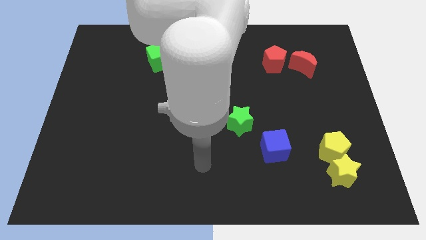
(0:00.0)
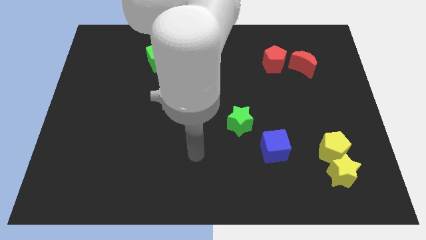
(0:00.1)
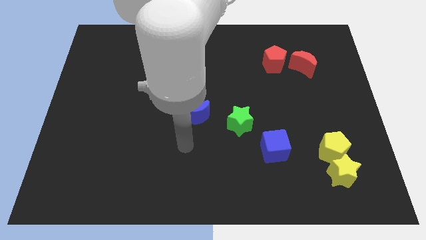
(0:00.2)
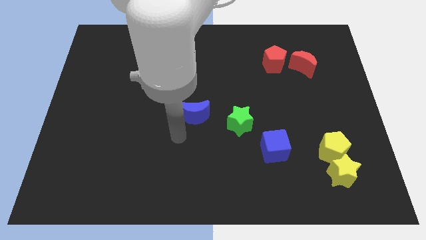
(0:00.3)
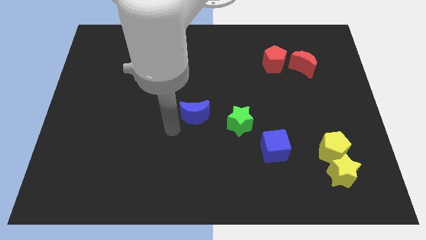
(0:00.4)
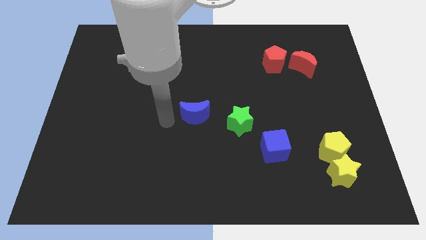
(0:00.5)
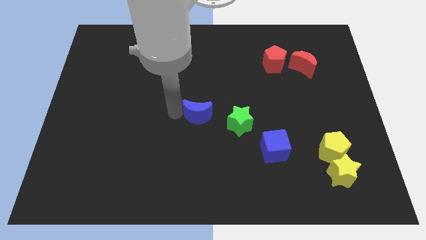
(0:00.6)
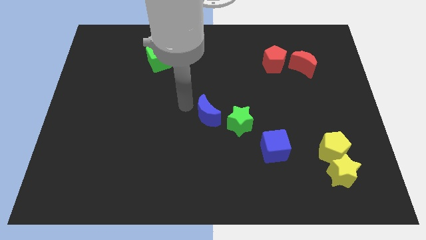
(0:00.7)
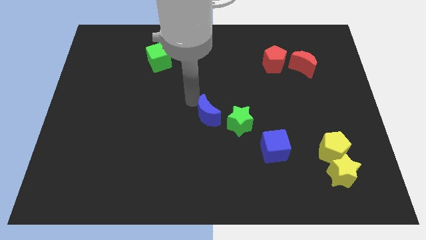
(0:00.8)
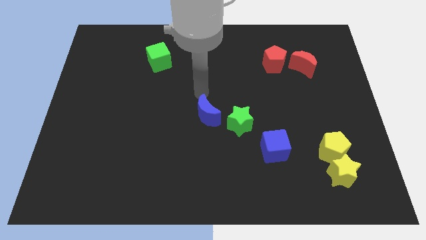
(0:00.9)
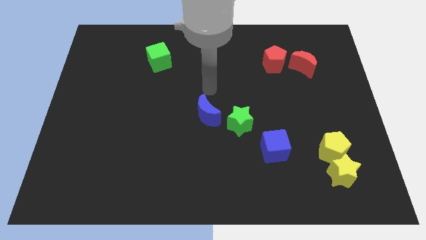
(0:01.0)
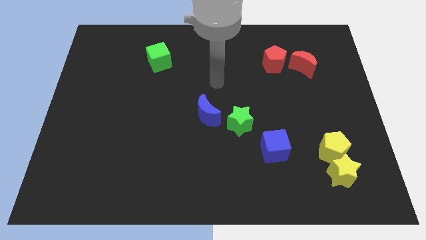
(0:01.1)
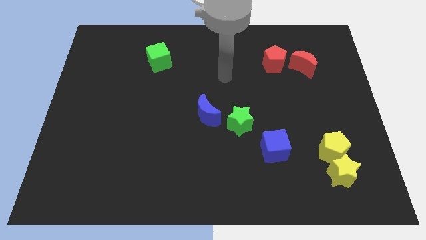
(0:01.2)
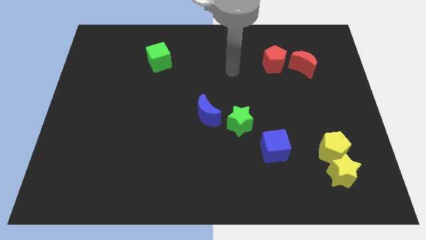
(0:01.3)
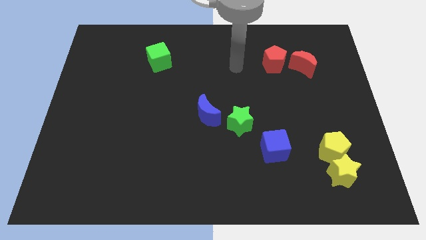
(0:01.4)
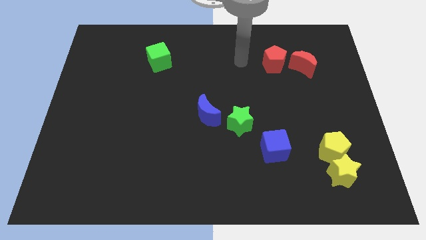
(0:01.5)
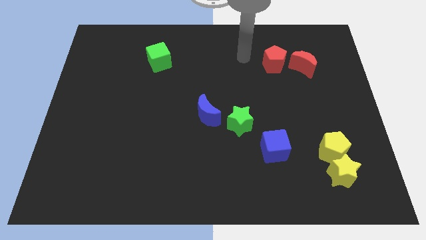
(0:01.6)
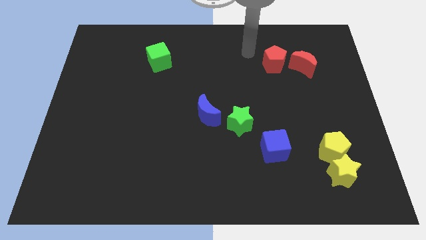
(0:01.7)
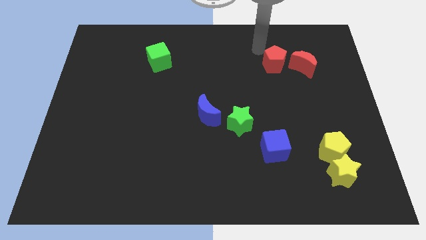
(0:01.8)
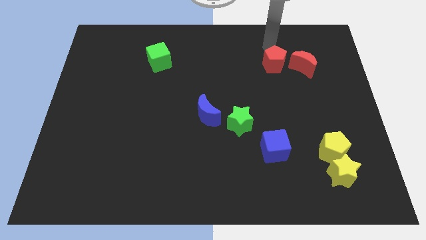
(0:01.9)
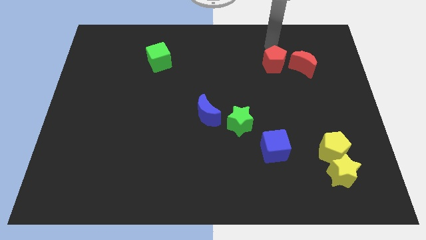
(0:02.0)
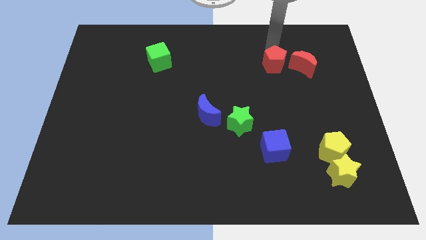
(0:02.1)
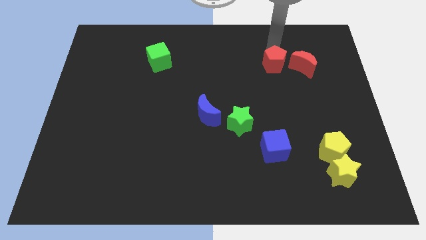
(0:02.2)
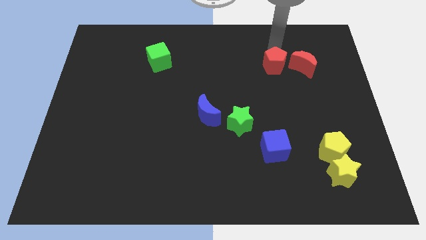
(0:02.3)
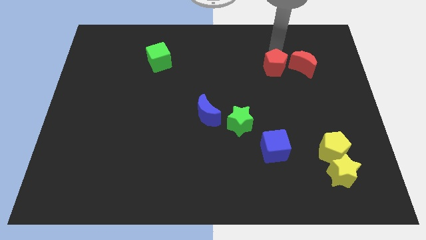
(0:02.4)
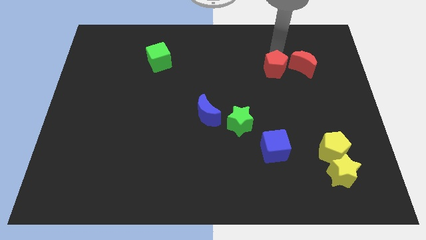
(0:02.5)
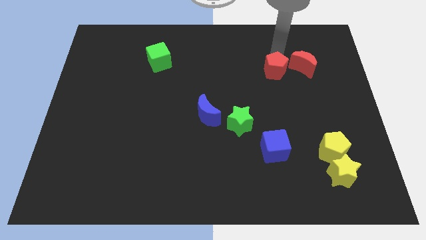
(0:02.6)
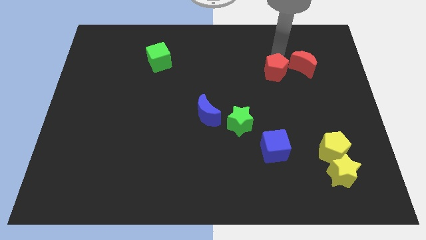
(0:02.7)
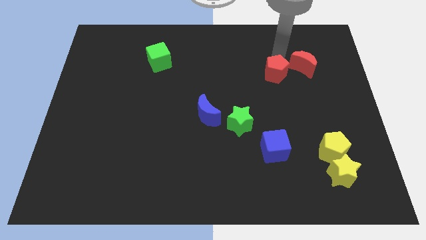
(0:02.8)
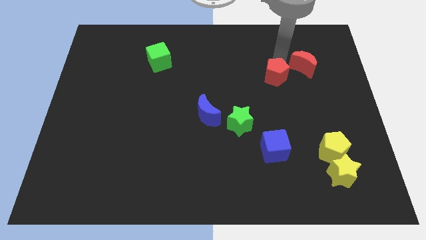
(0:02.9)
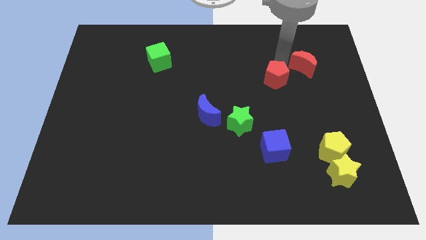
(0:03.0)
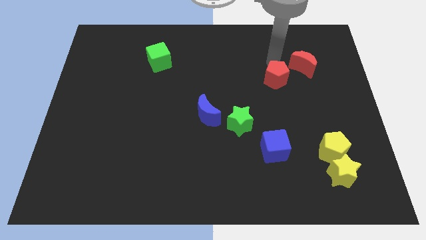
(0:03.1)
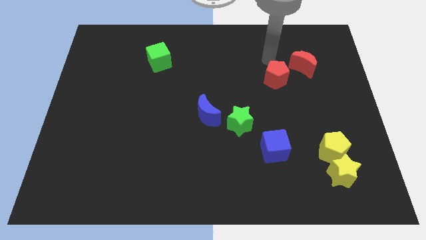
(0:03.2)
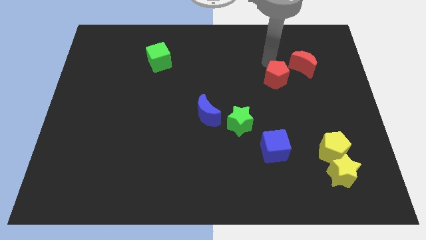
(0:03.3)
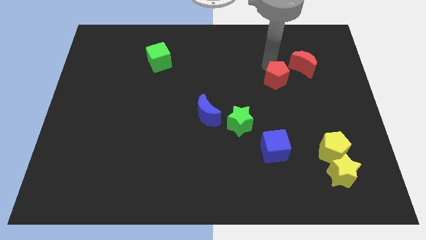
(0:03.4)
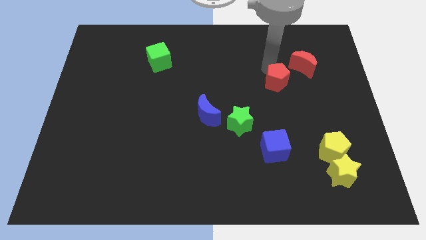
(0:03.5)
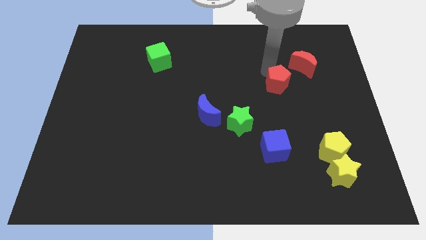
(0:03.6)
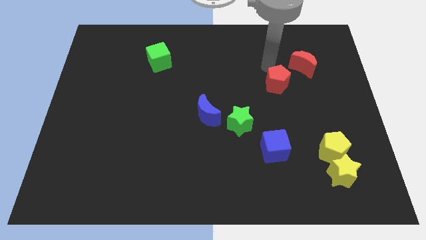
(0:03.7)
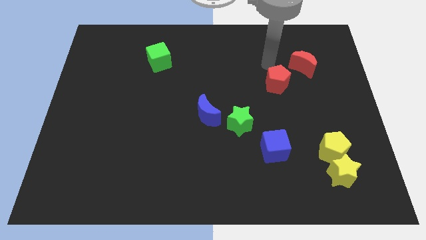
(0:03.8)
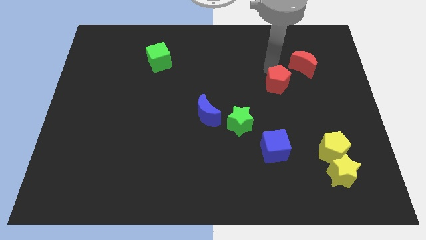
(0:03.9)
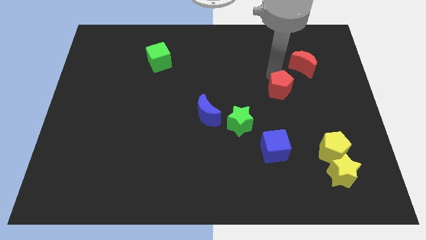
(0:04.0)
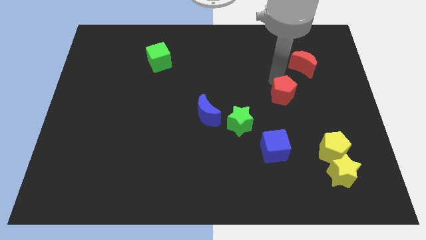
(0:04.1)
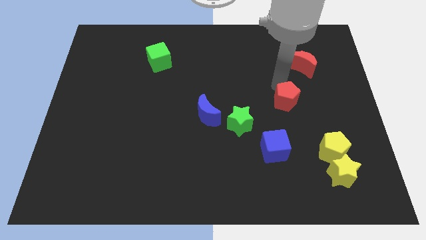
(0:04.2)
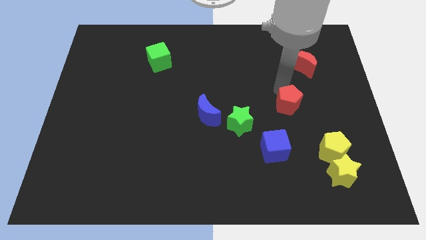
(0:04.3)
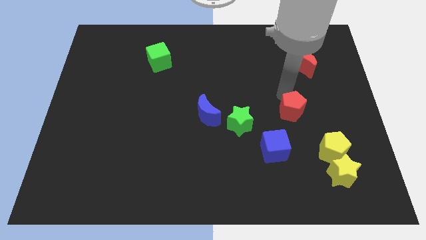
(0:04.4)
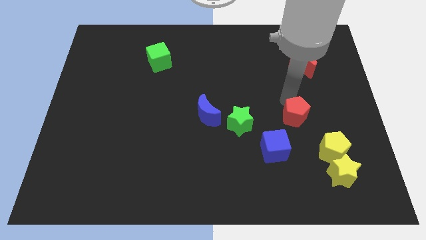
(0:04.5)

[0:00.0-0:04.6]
move the red pentagon to the top right of the blue cube

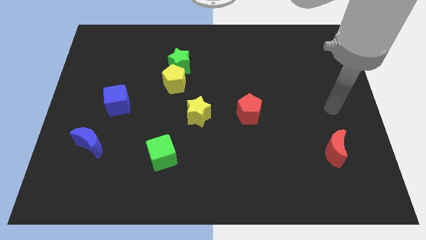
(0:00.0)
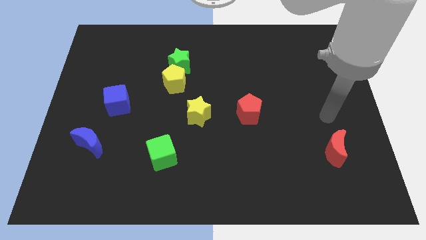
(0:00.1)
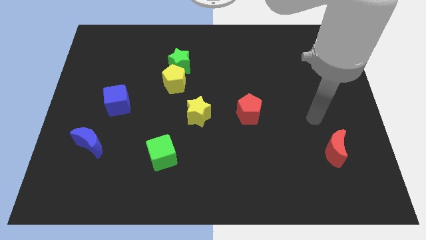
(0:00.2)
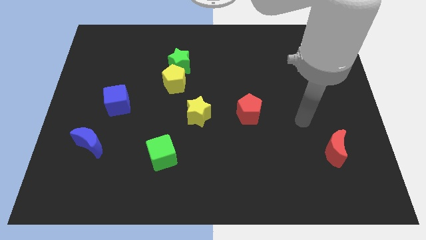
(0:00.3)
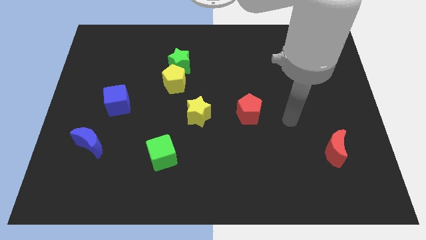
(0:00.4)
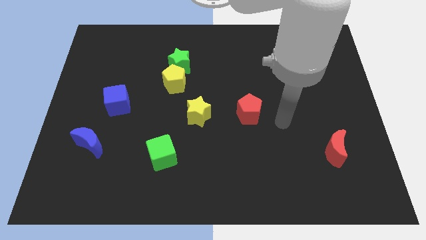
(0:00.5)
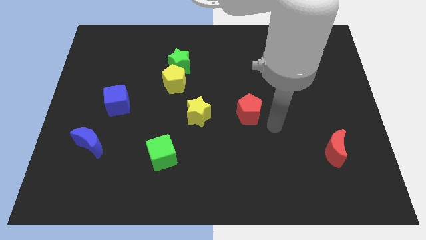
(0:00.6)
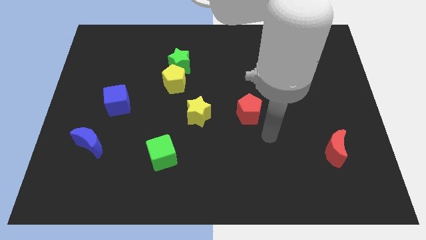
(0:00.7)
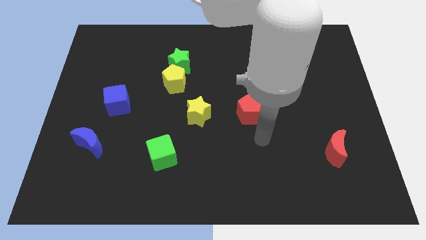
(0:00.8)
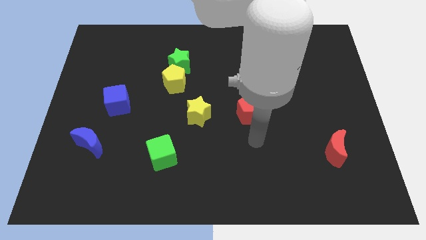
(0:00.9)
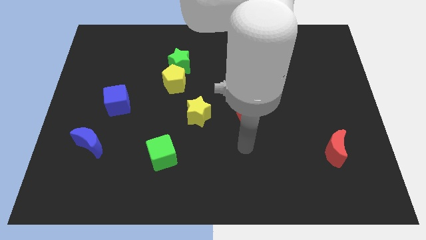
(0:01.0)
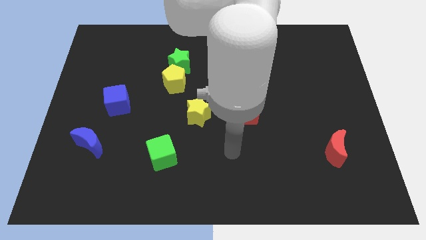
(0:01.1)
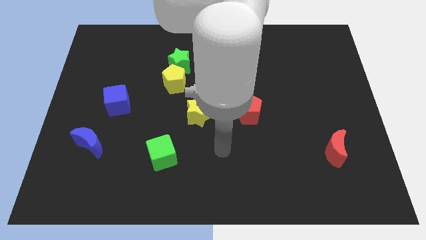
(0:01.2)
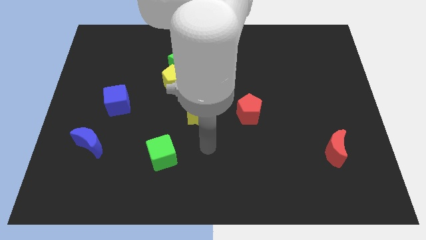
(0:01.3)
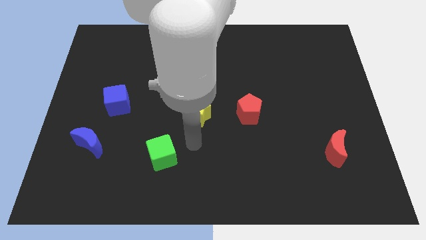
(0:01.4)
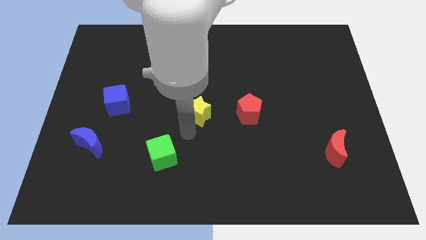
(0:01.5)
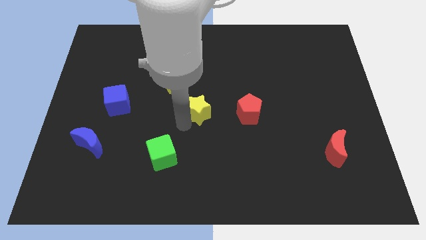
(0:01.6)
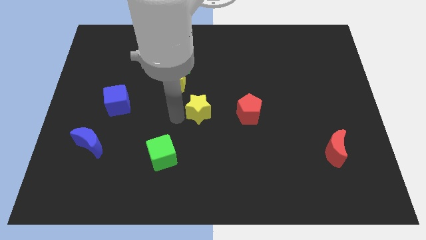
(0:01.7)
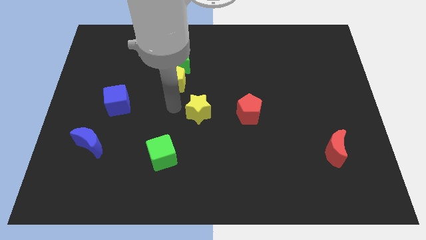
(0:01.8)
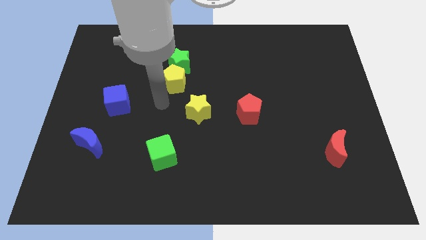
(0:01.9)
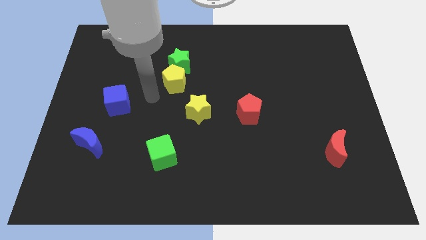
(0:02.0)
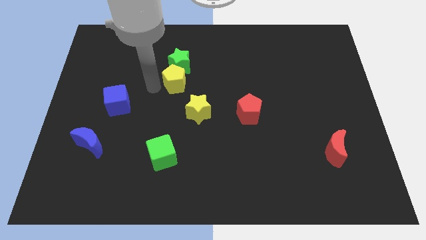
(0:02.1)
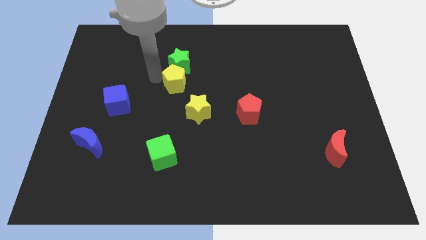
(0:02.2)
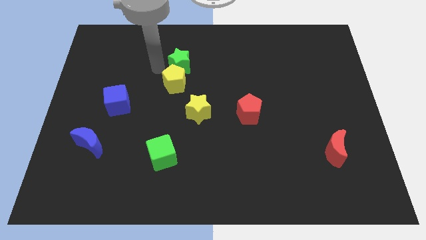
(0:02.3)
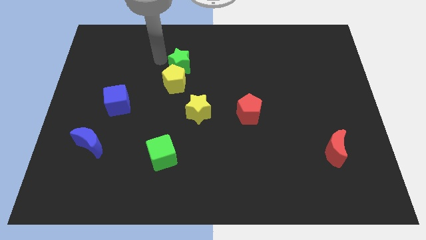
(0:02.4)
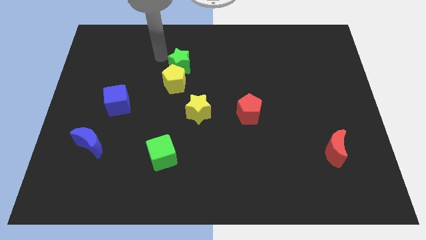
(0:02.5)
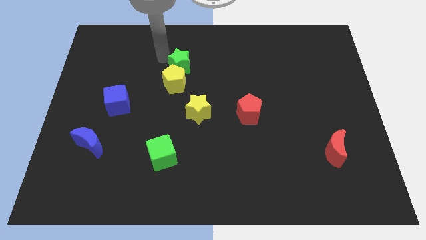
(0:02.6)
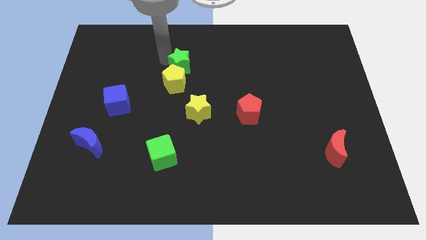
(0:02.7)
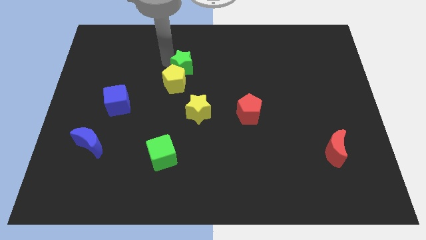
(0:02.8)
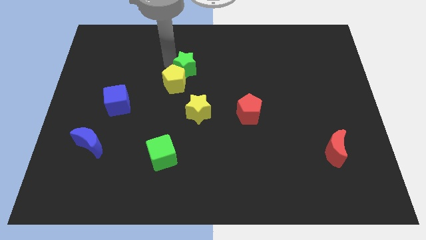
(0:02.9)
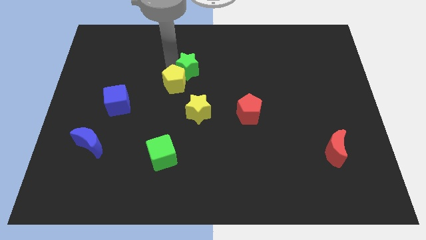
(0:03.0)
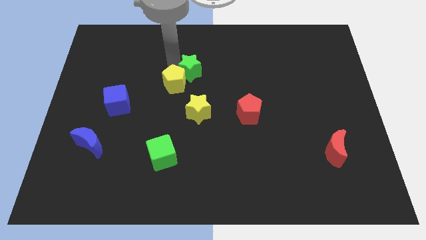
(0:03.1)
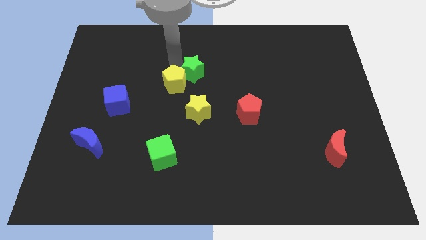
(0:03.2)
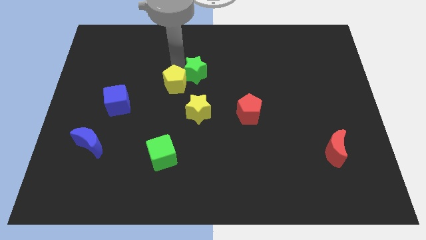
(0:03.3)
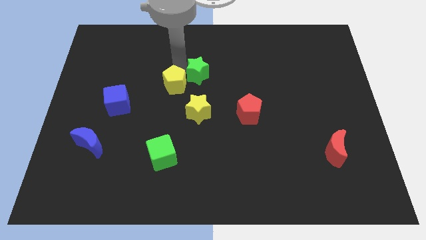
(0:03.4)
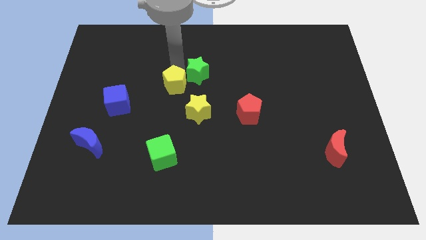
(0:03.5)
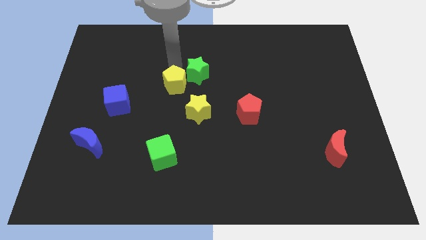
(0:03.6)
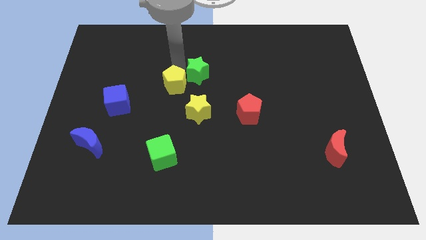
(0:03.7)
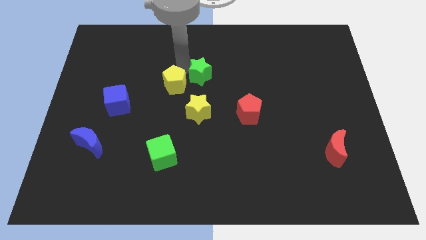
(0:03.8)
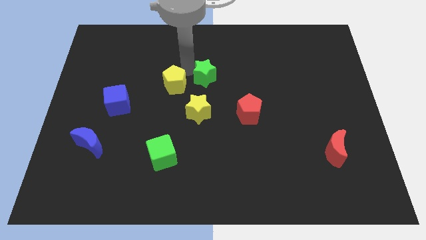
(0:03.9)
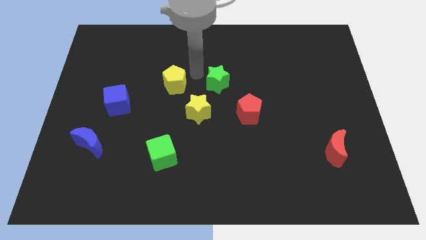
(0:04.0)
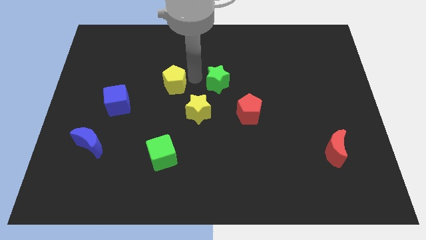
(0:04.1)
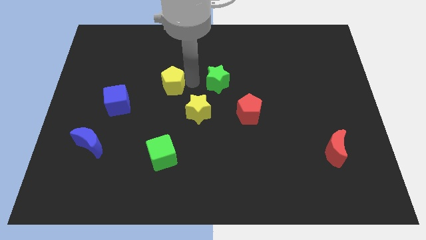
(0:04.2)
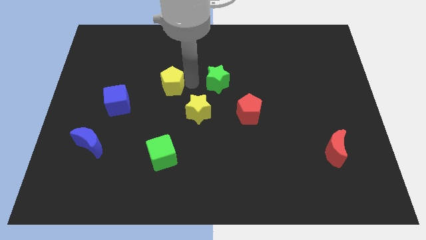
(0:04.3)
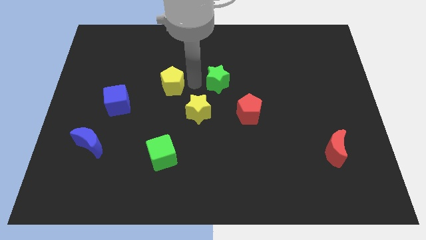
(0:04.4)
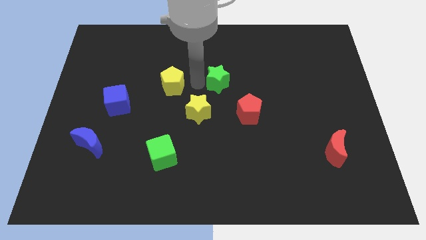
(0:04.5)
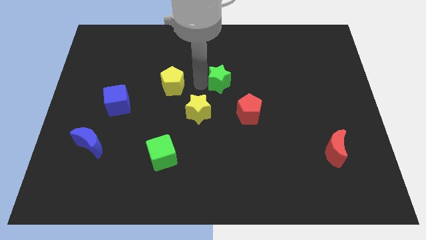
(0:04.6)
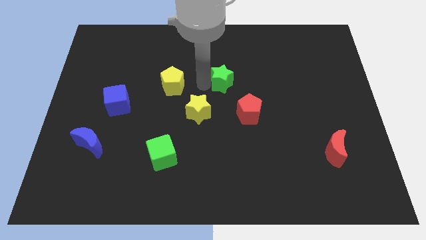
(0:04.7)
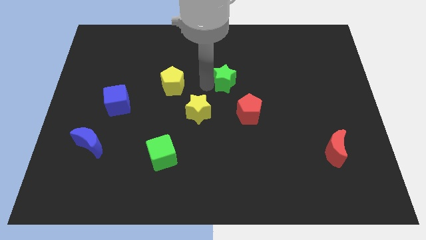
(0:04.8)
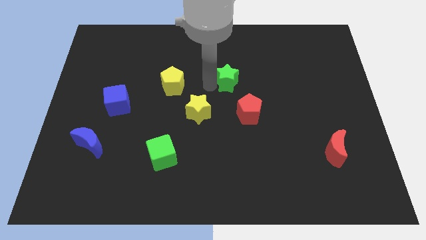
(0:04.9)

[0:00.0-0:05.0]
slide the green star above the red pentagon
